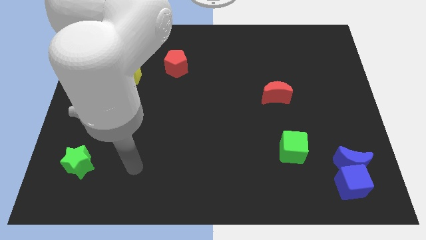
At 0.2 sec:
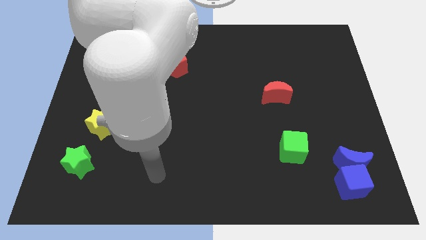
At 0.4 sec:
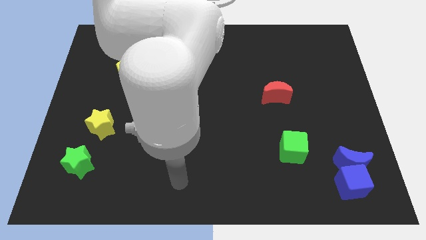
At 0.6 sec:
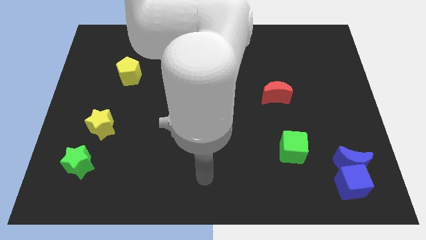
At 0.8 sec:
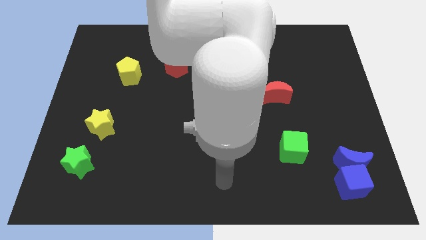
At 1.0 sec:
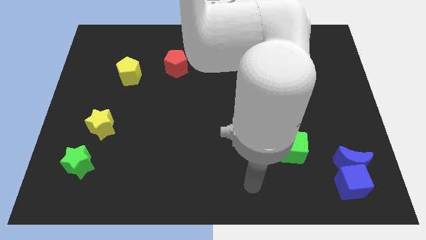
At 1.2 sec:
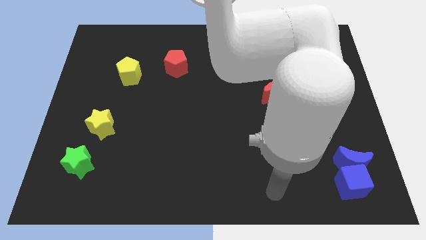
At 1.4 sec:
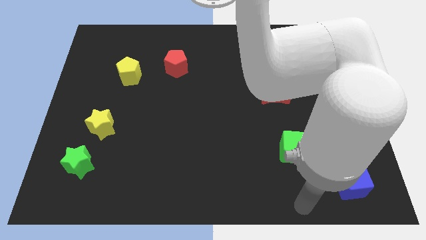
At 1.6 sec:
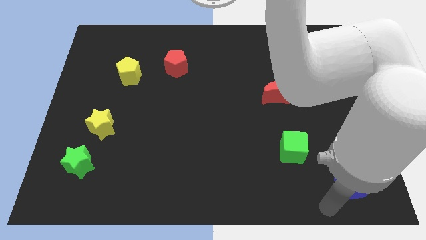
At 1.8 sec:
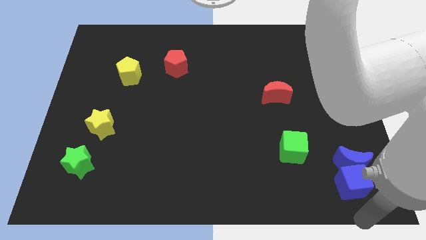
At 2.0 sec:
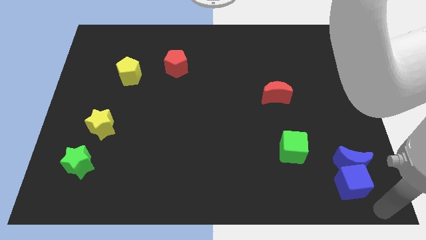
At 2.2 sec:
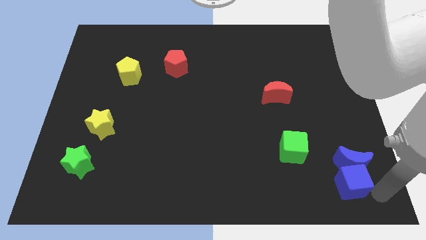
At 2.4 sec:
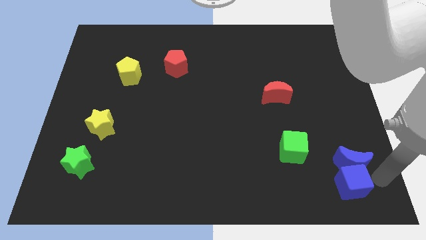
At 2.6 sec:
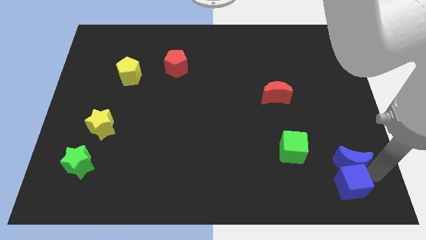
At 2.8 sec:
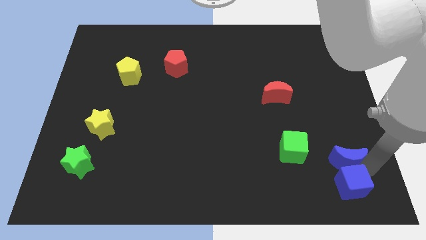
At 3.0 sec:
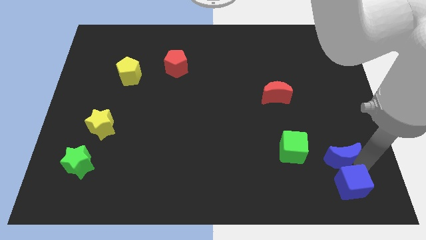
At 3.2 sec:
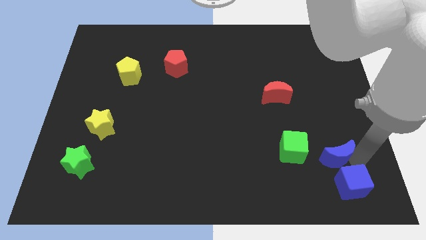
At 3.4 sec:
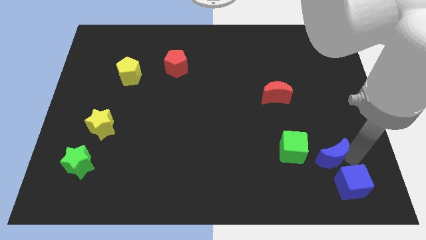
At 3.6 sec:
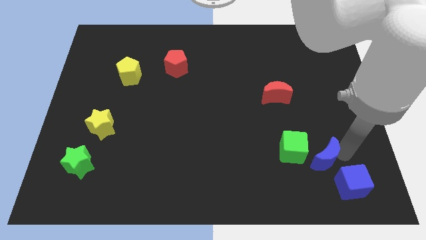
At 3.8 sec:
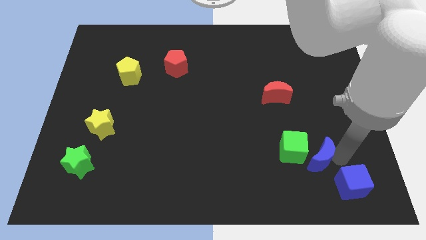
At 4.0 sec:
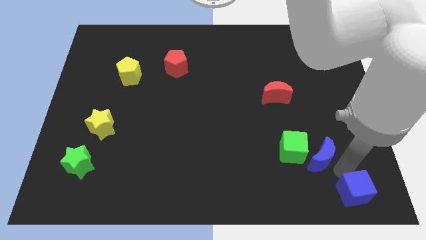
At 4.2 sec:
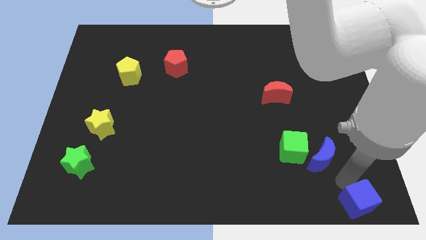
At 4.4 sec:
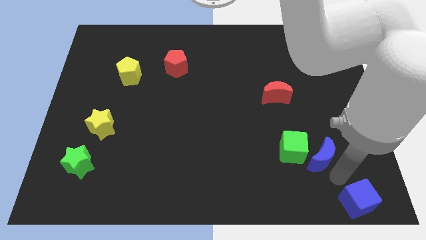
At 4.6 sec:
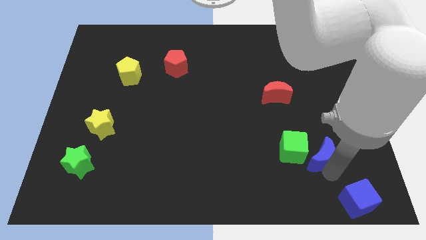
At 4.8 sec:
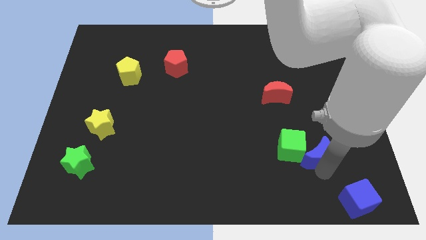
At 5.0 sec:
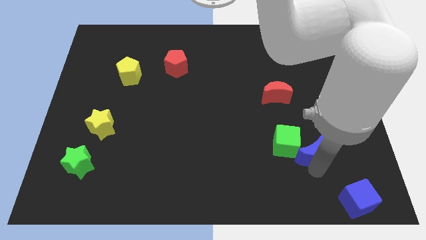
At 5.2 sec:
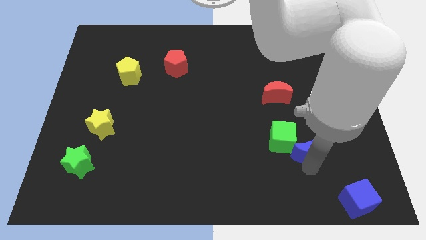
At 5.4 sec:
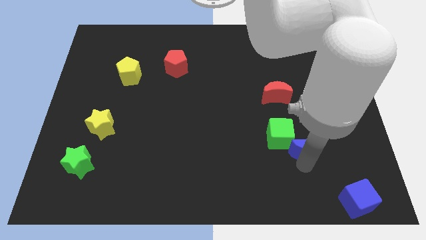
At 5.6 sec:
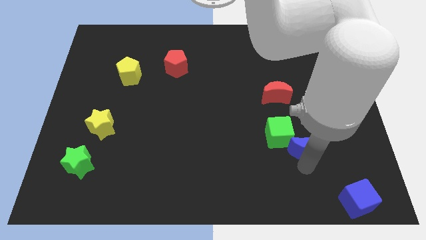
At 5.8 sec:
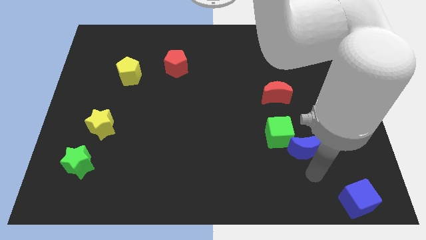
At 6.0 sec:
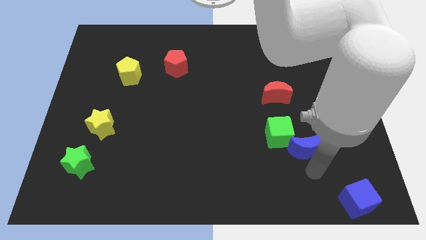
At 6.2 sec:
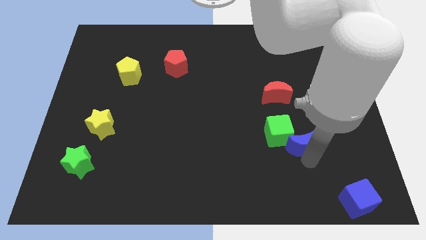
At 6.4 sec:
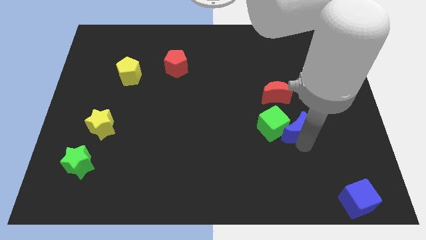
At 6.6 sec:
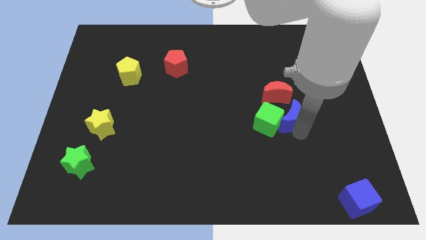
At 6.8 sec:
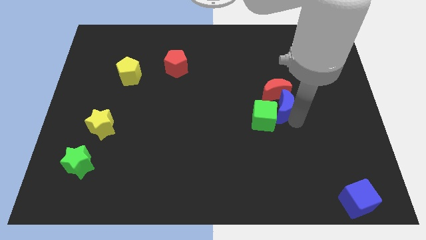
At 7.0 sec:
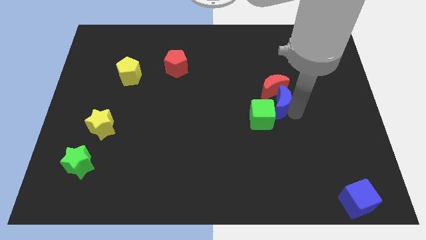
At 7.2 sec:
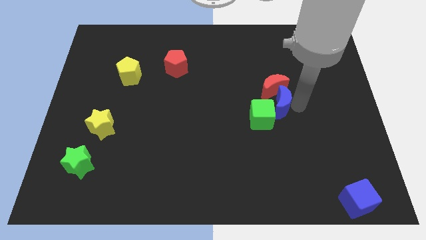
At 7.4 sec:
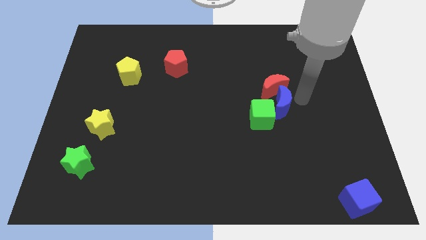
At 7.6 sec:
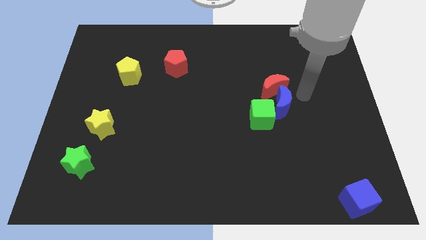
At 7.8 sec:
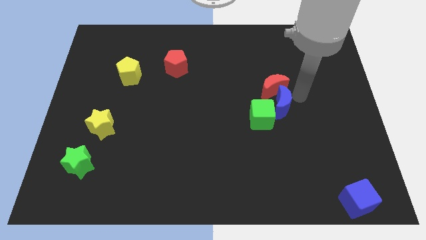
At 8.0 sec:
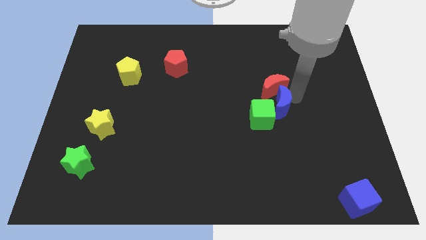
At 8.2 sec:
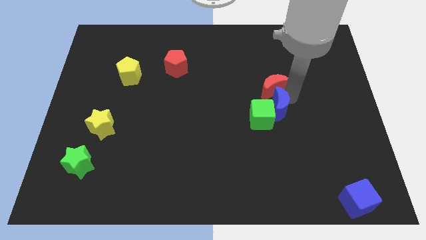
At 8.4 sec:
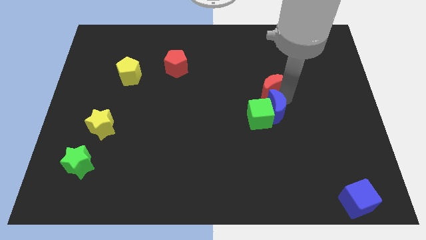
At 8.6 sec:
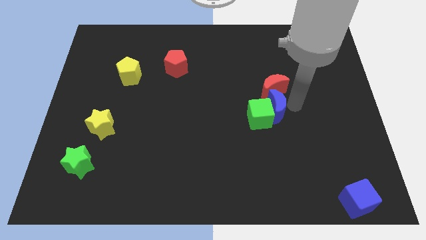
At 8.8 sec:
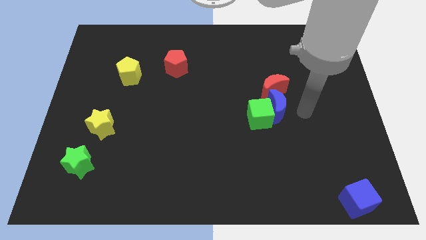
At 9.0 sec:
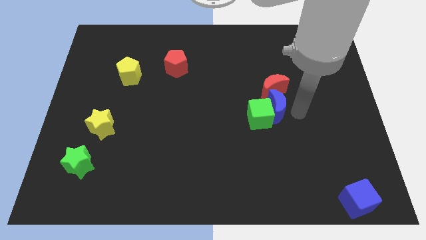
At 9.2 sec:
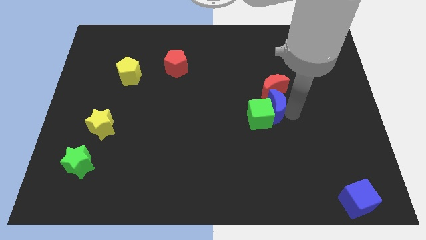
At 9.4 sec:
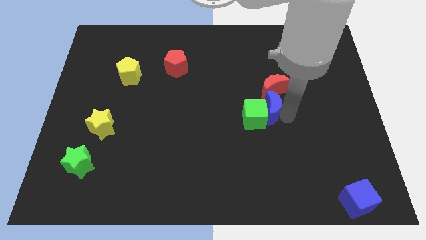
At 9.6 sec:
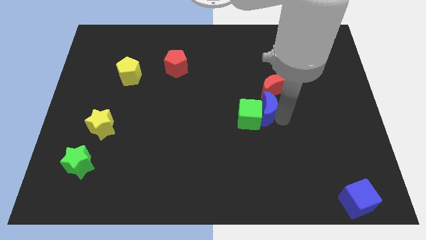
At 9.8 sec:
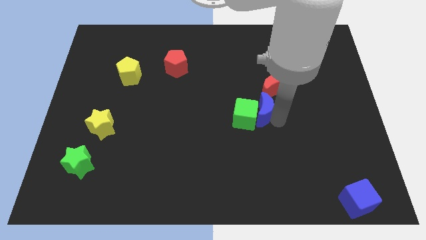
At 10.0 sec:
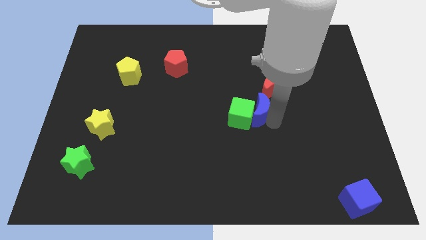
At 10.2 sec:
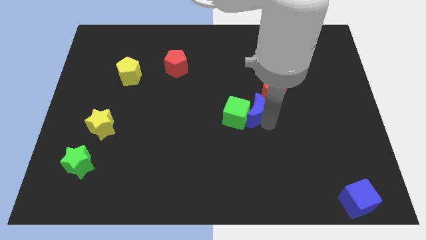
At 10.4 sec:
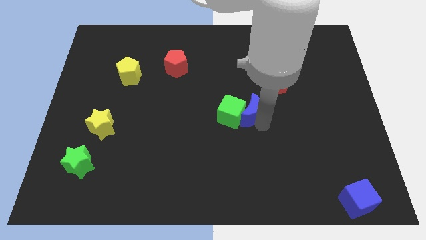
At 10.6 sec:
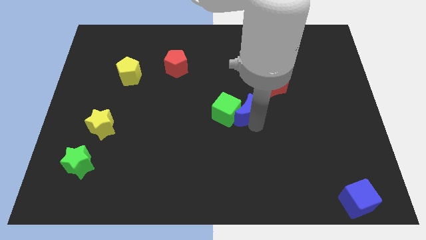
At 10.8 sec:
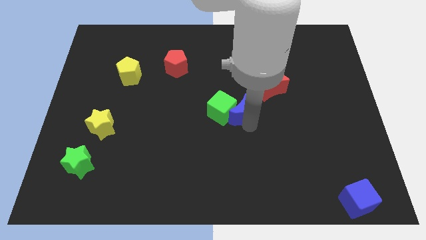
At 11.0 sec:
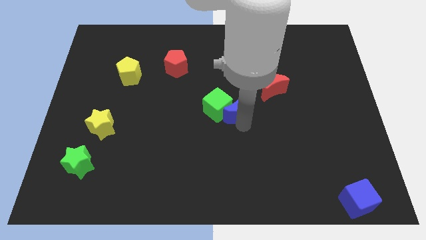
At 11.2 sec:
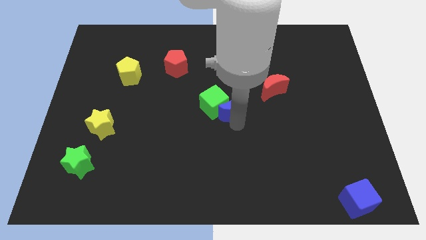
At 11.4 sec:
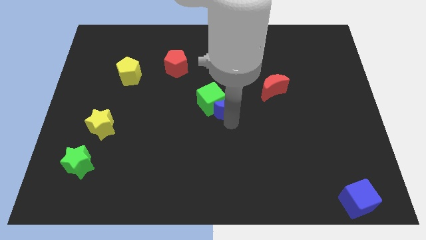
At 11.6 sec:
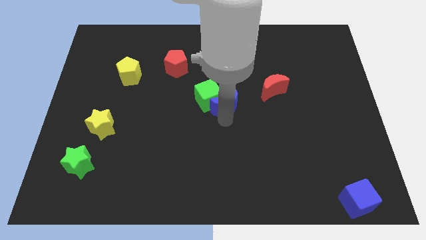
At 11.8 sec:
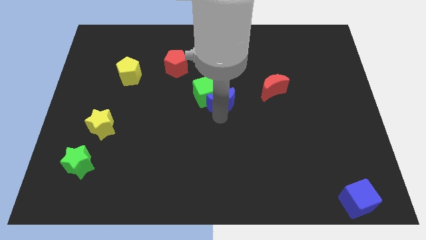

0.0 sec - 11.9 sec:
move the blue moon to the left of the red moon

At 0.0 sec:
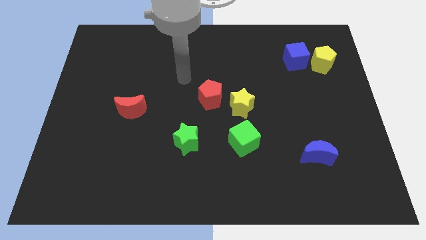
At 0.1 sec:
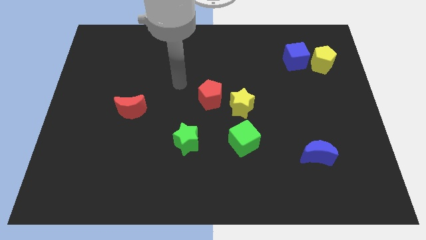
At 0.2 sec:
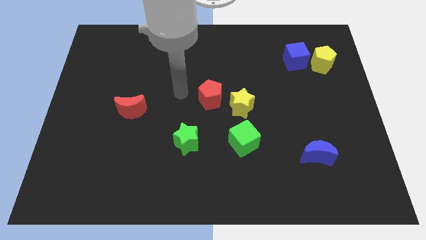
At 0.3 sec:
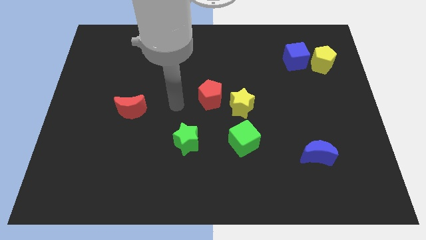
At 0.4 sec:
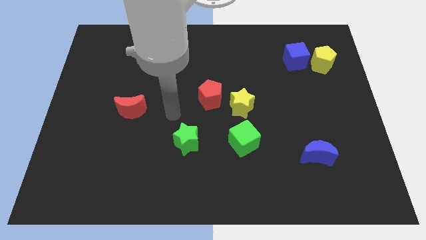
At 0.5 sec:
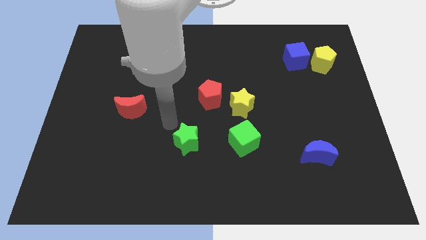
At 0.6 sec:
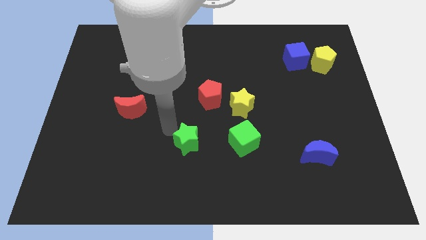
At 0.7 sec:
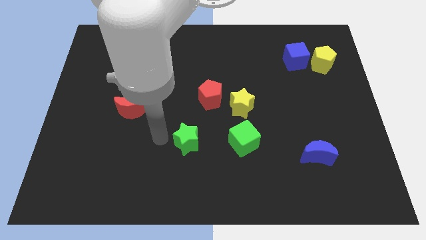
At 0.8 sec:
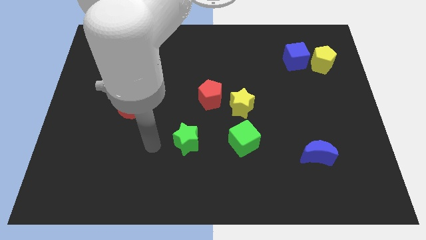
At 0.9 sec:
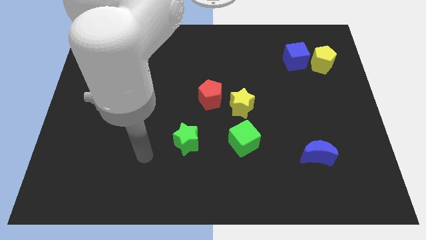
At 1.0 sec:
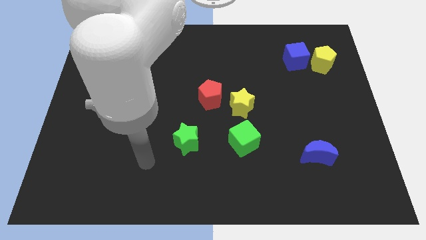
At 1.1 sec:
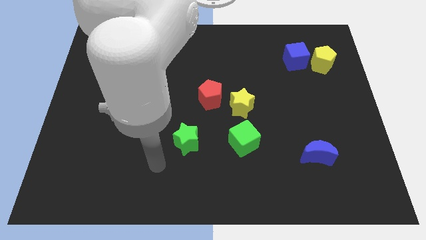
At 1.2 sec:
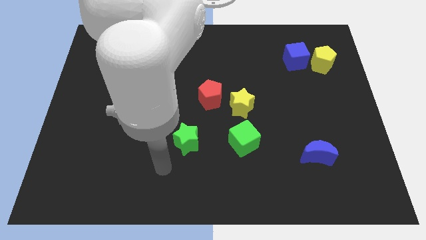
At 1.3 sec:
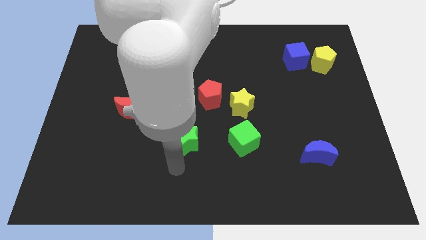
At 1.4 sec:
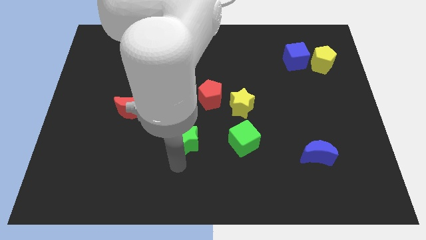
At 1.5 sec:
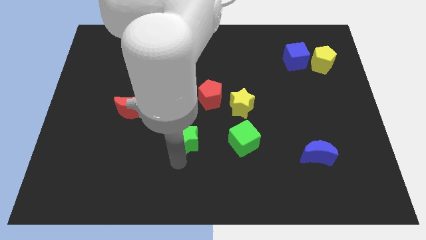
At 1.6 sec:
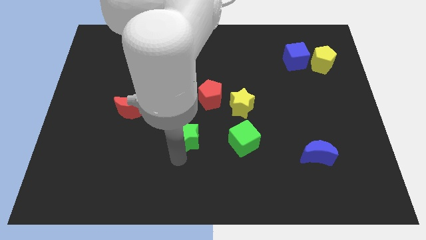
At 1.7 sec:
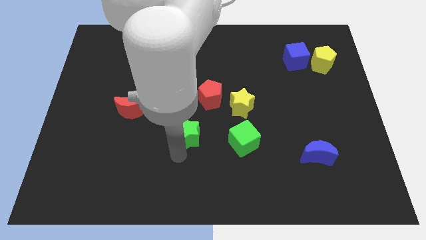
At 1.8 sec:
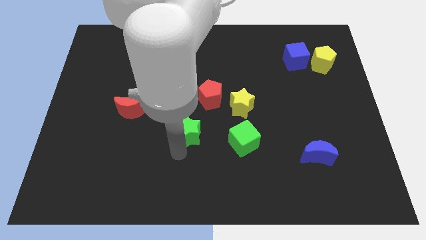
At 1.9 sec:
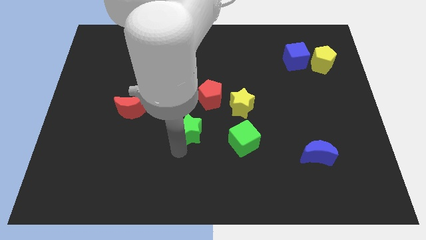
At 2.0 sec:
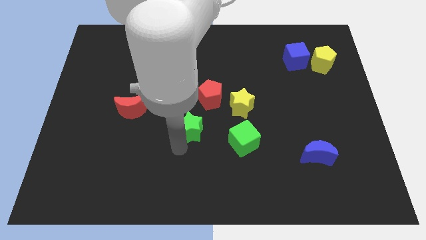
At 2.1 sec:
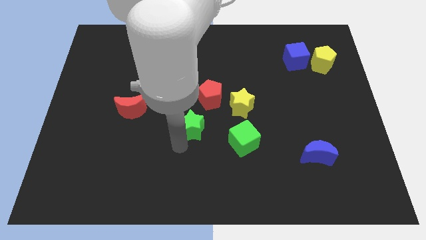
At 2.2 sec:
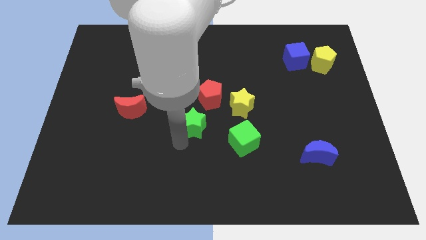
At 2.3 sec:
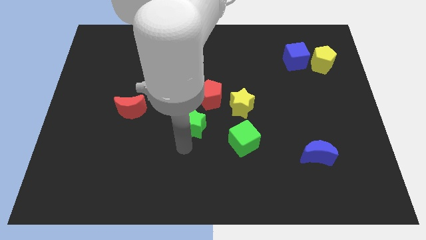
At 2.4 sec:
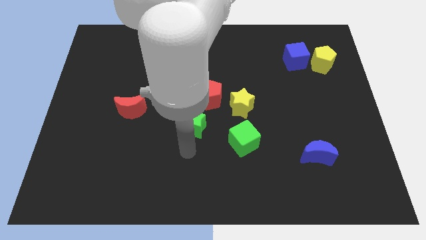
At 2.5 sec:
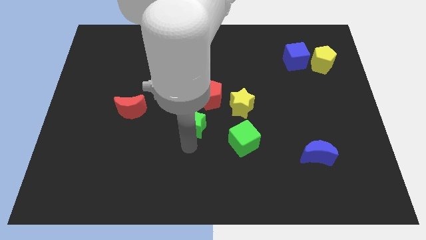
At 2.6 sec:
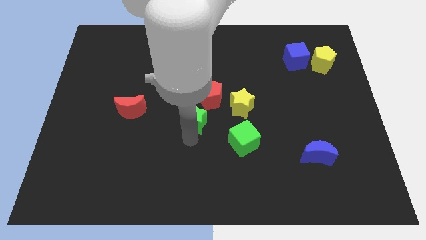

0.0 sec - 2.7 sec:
push the green star to the left of the yellow star
